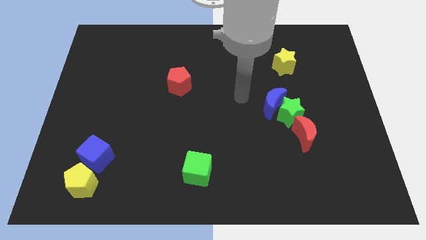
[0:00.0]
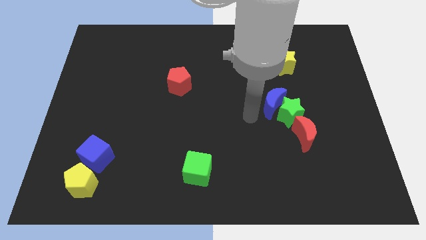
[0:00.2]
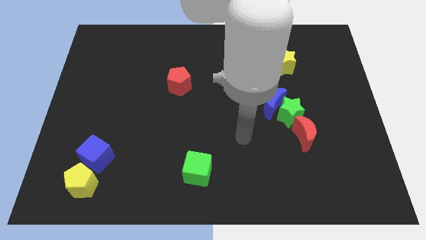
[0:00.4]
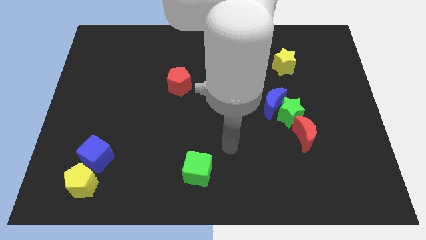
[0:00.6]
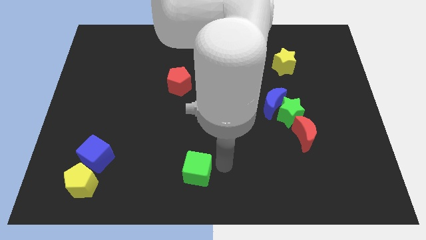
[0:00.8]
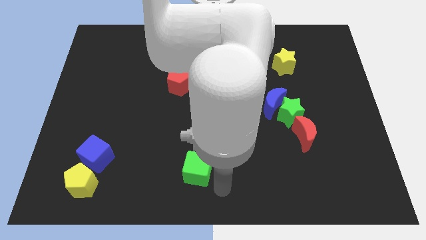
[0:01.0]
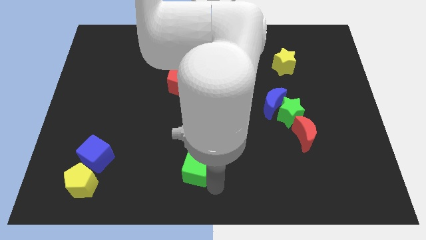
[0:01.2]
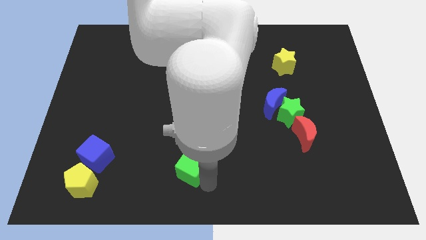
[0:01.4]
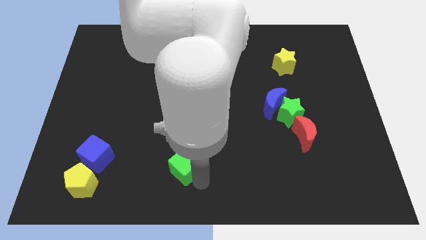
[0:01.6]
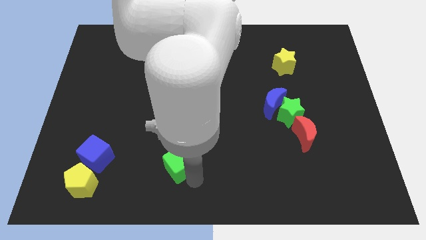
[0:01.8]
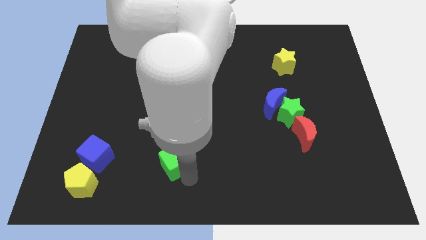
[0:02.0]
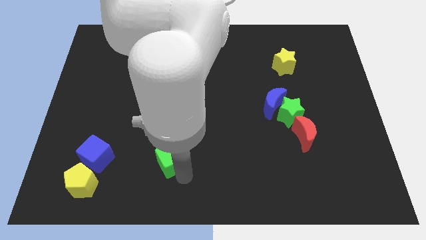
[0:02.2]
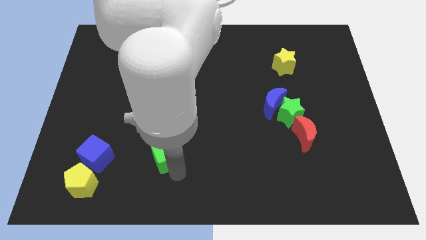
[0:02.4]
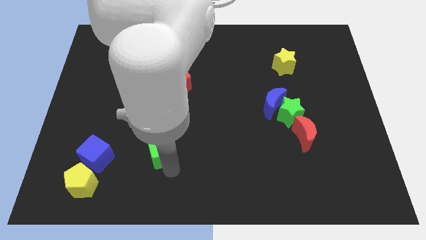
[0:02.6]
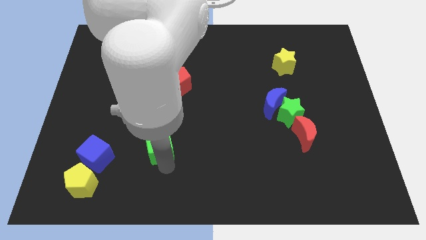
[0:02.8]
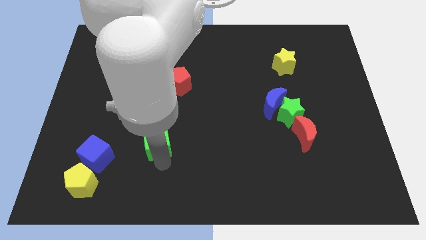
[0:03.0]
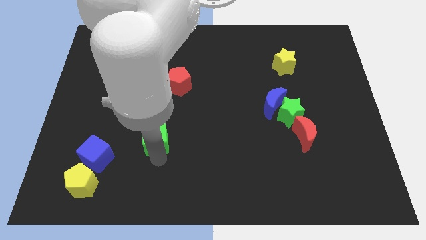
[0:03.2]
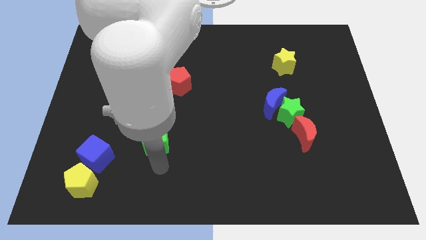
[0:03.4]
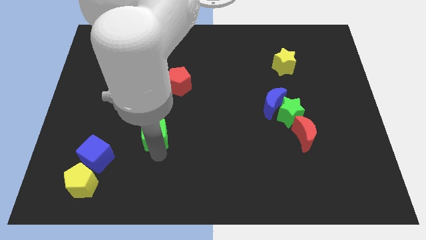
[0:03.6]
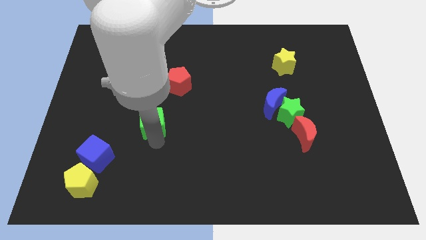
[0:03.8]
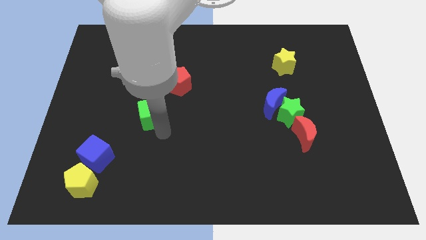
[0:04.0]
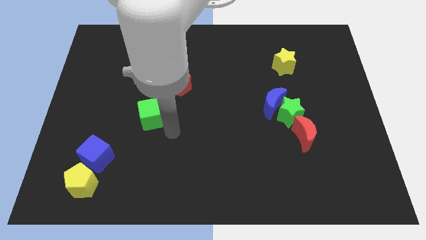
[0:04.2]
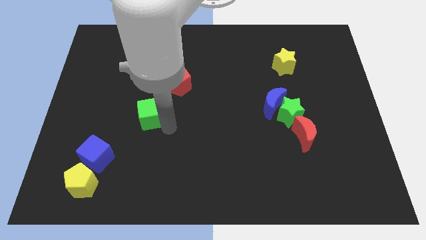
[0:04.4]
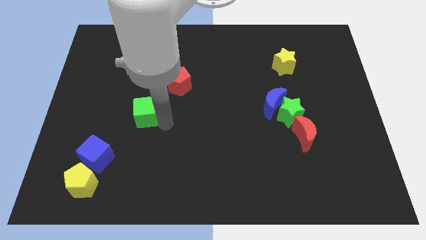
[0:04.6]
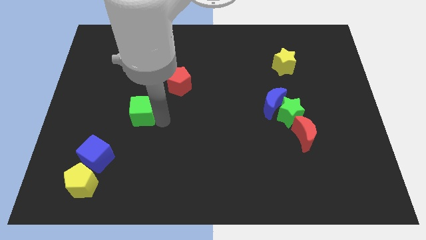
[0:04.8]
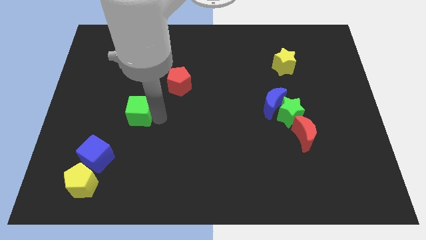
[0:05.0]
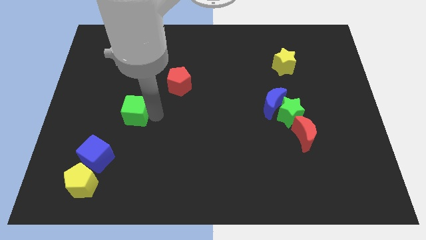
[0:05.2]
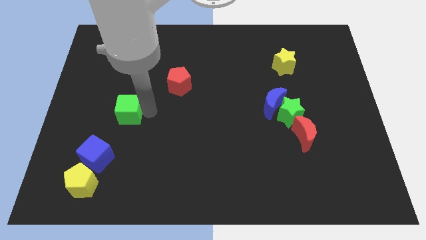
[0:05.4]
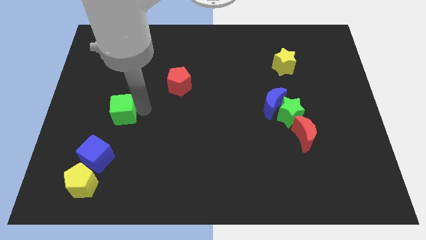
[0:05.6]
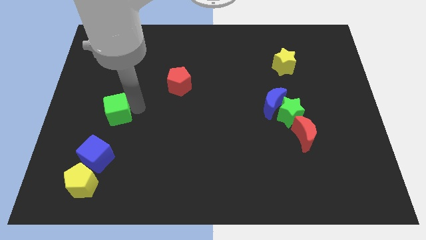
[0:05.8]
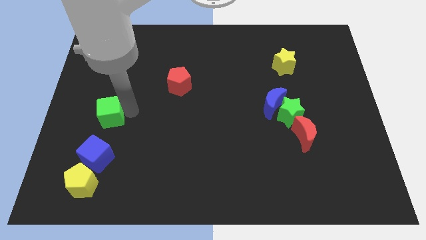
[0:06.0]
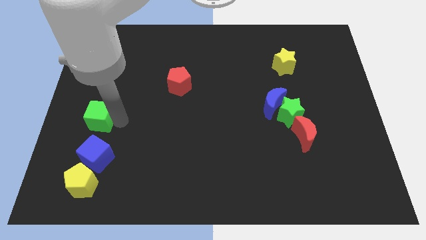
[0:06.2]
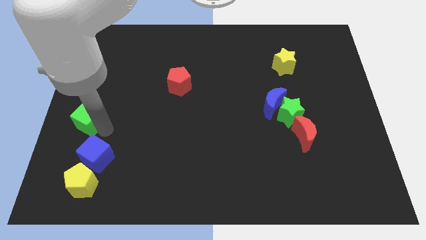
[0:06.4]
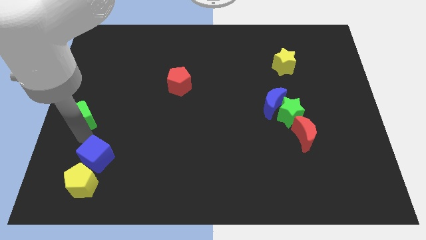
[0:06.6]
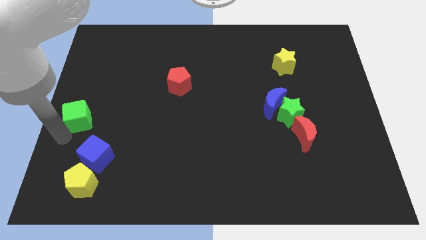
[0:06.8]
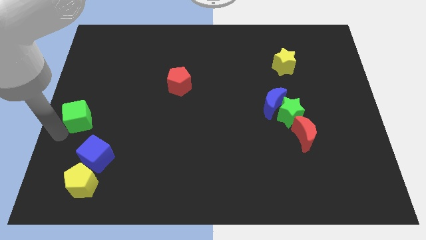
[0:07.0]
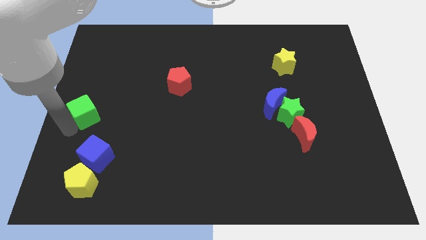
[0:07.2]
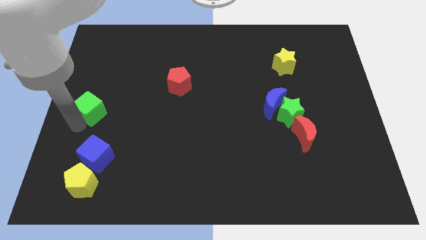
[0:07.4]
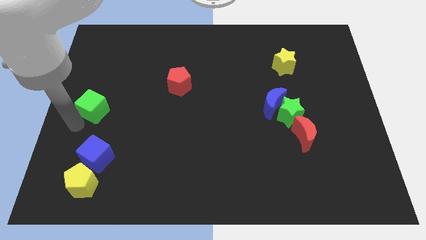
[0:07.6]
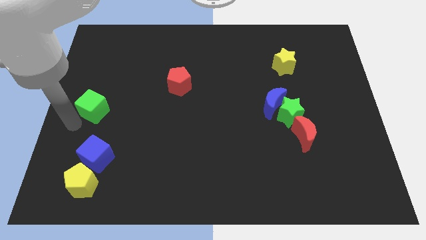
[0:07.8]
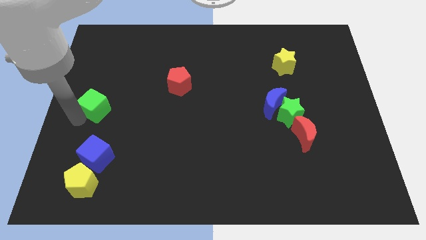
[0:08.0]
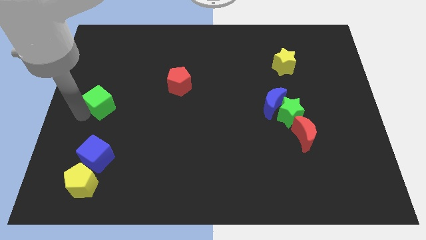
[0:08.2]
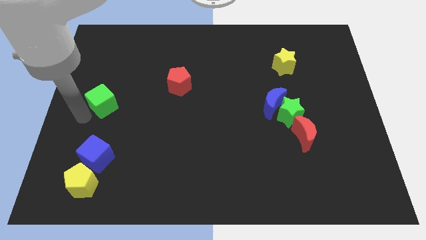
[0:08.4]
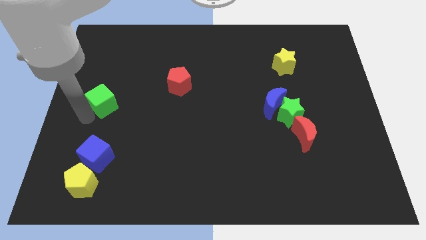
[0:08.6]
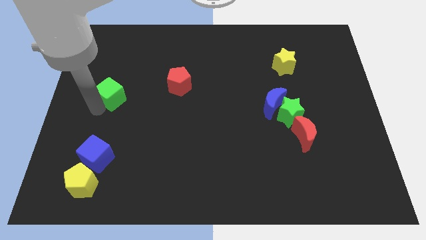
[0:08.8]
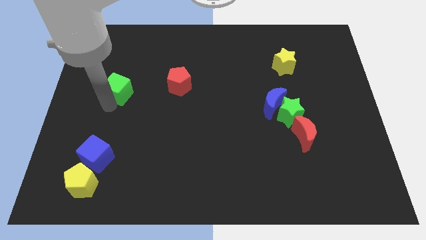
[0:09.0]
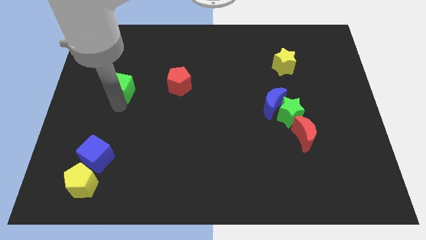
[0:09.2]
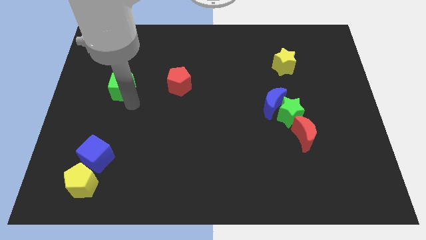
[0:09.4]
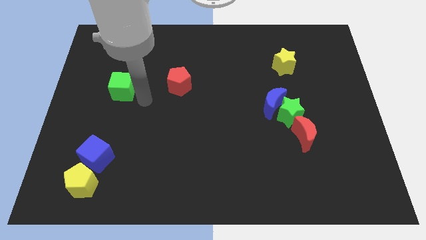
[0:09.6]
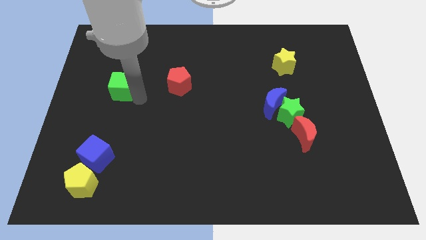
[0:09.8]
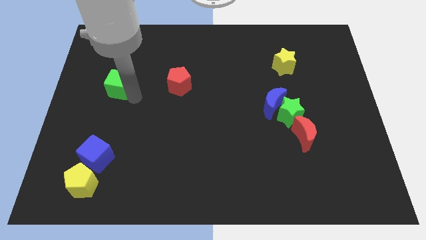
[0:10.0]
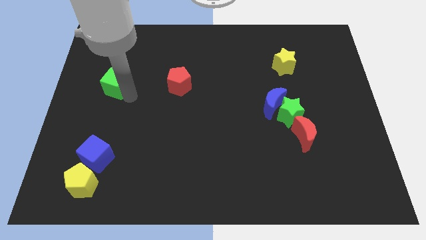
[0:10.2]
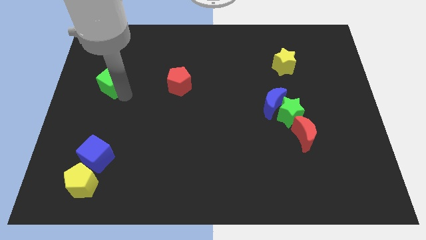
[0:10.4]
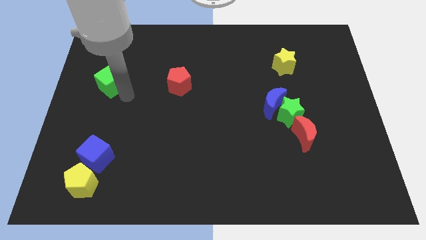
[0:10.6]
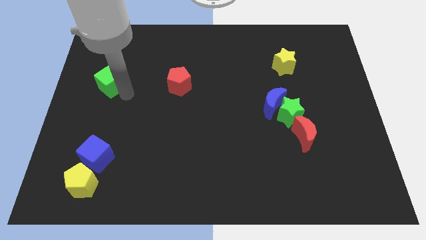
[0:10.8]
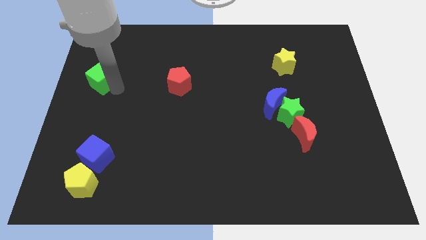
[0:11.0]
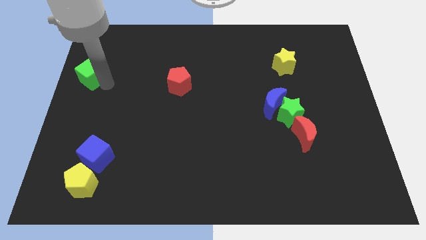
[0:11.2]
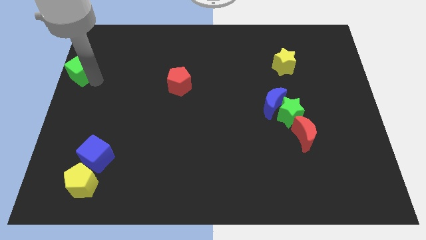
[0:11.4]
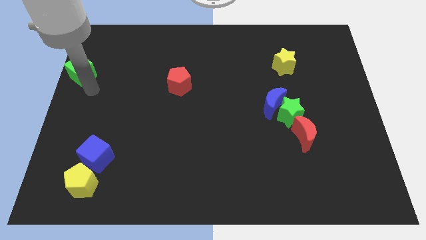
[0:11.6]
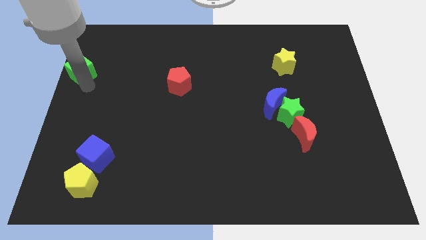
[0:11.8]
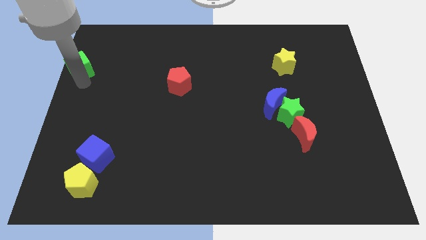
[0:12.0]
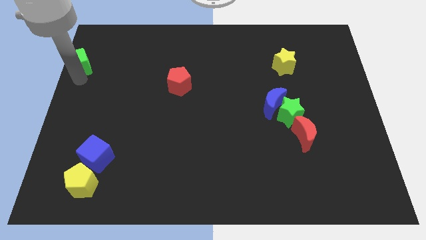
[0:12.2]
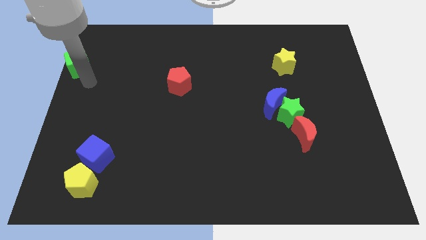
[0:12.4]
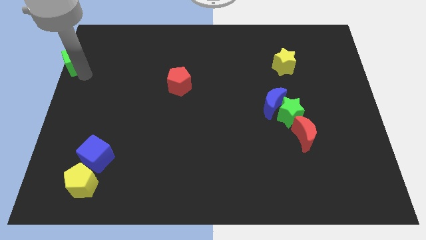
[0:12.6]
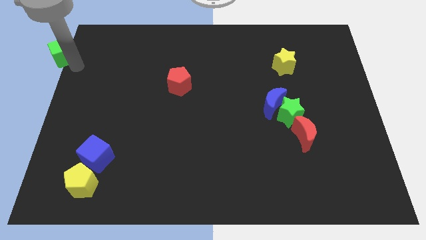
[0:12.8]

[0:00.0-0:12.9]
move the green cube to the top left of the board

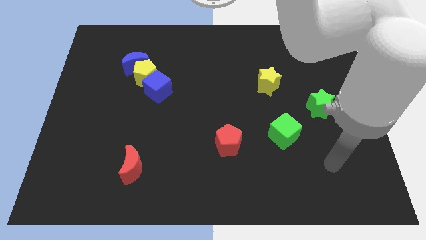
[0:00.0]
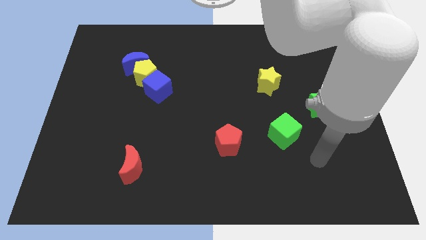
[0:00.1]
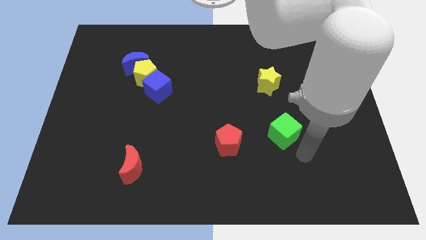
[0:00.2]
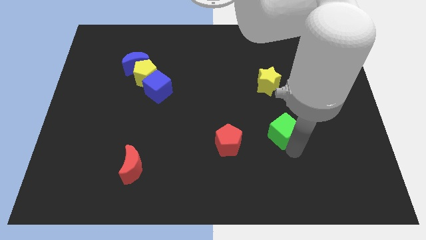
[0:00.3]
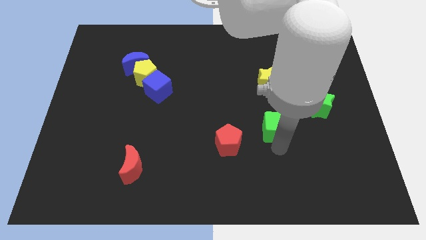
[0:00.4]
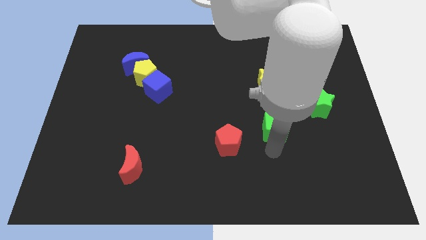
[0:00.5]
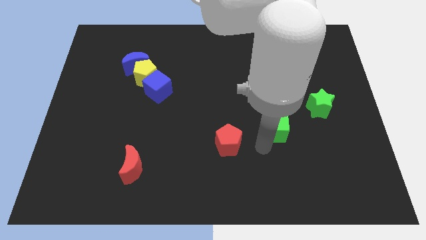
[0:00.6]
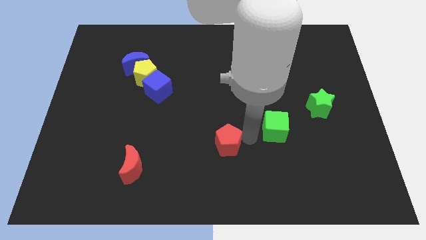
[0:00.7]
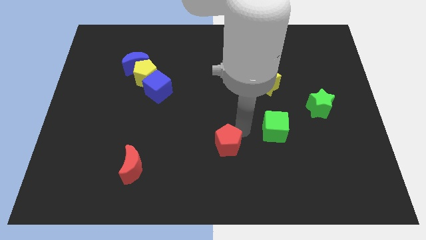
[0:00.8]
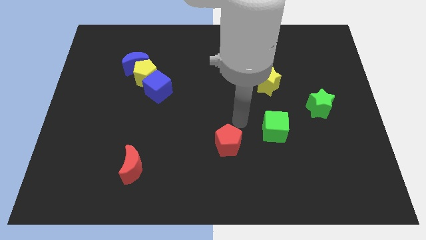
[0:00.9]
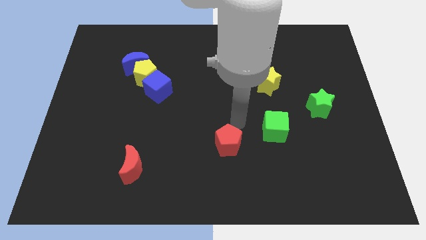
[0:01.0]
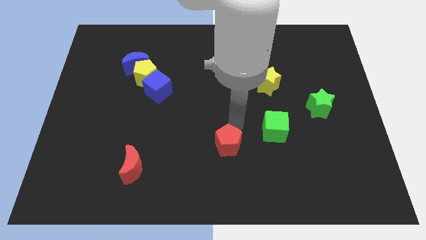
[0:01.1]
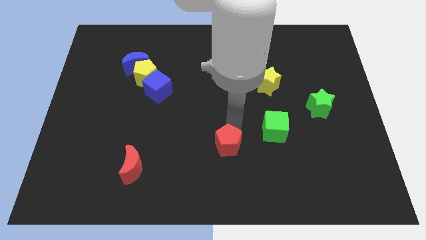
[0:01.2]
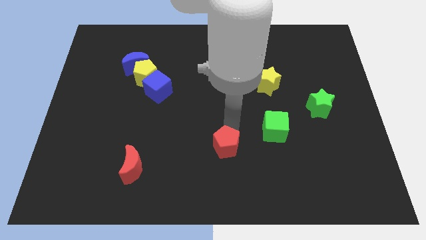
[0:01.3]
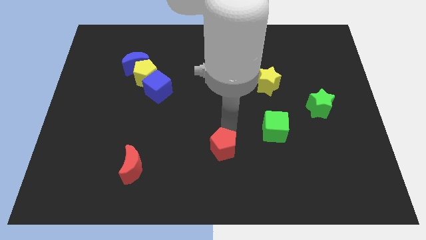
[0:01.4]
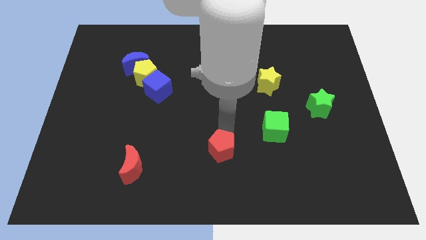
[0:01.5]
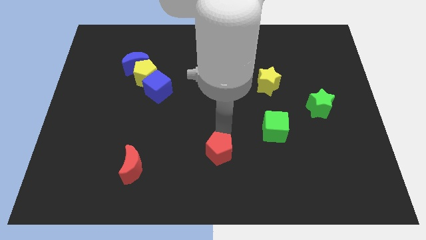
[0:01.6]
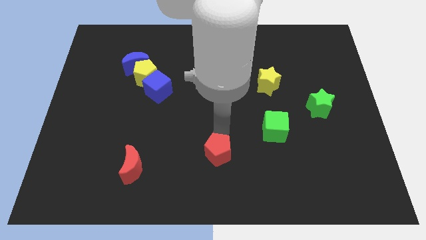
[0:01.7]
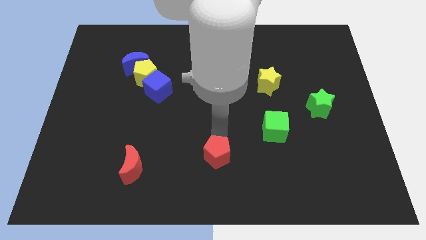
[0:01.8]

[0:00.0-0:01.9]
move the red pentagon to the bottom
